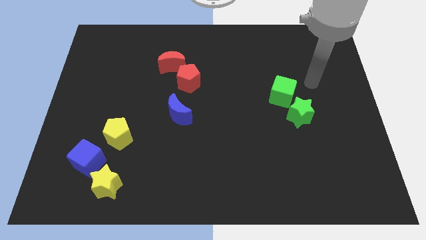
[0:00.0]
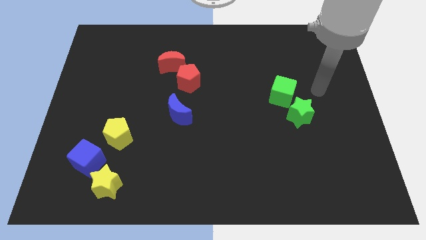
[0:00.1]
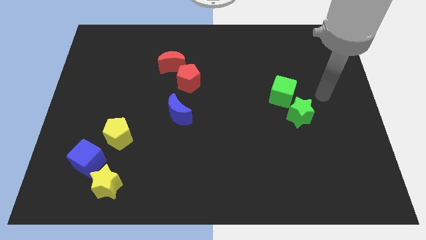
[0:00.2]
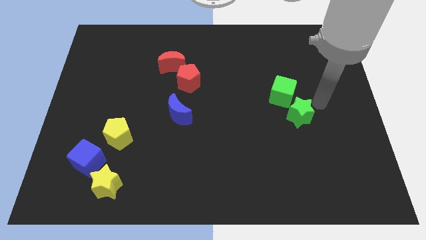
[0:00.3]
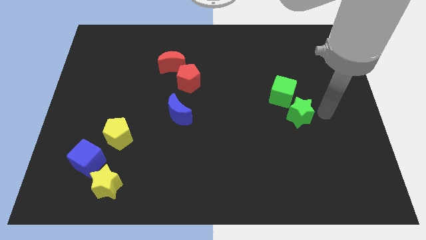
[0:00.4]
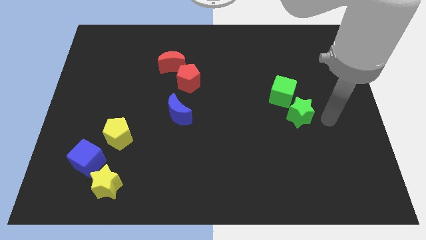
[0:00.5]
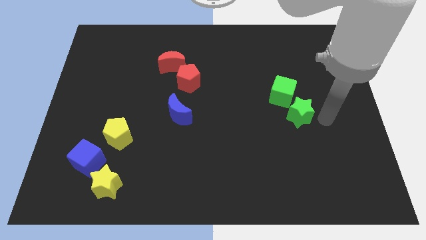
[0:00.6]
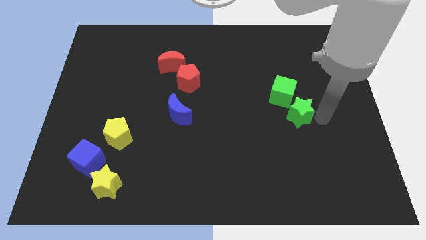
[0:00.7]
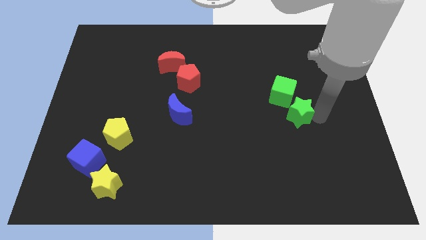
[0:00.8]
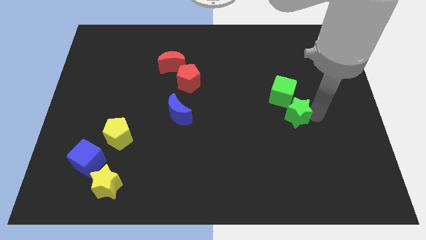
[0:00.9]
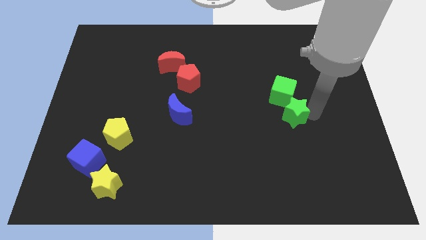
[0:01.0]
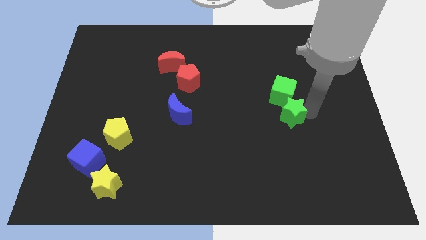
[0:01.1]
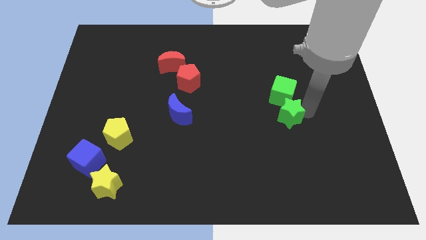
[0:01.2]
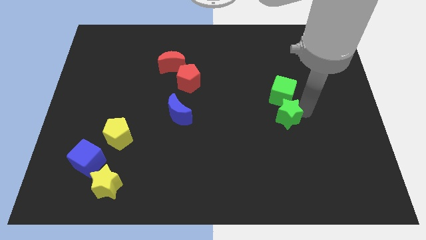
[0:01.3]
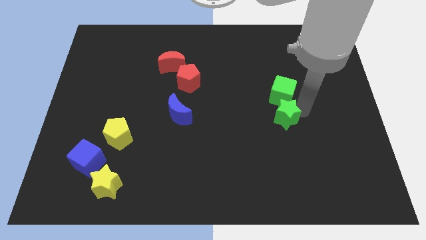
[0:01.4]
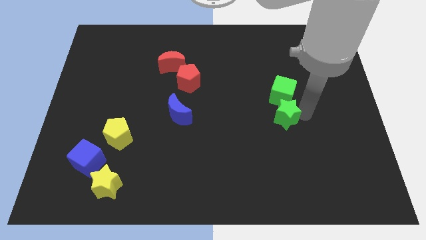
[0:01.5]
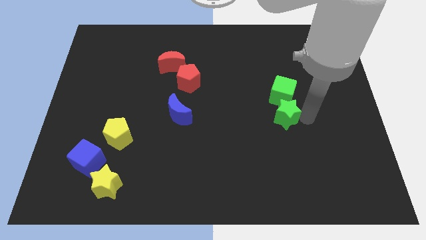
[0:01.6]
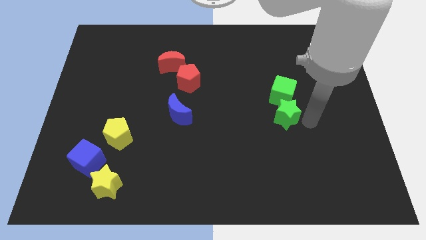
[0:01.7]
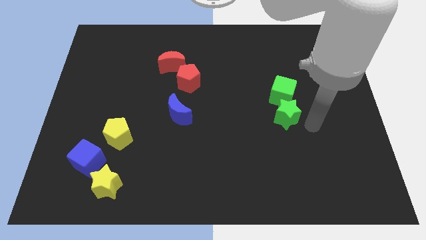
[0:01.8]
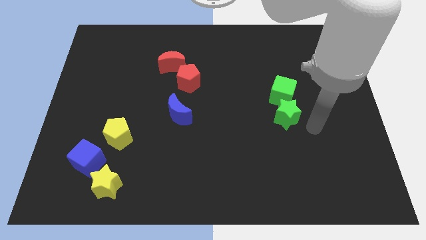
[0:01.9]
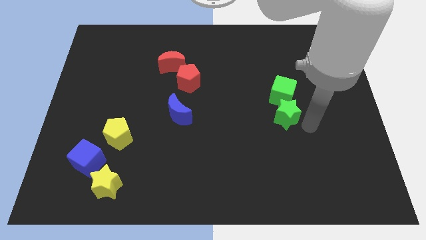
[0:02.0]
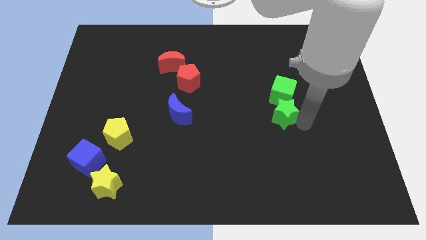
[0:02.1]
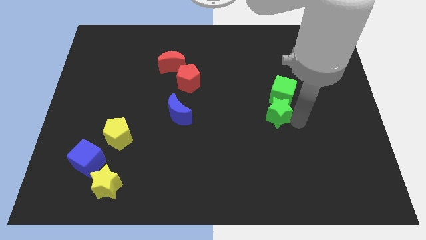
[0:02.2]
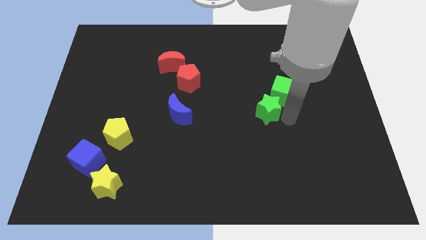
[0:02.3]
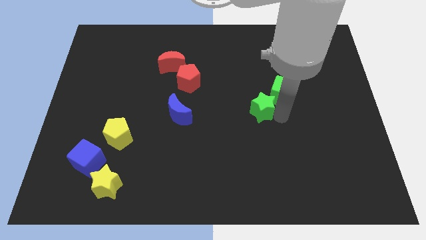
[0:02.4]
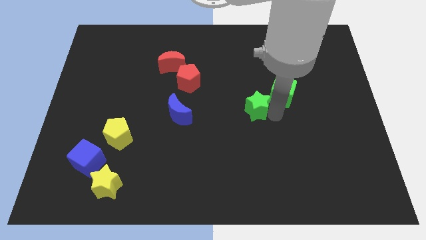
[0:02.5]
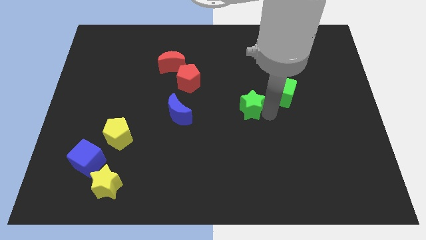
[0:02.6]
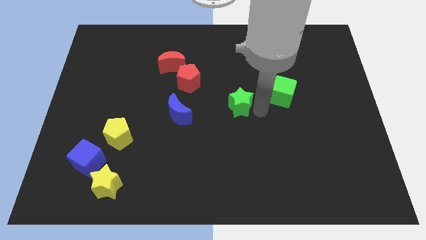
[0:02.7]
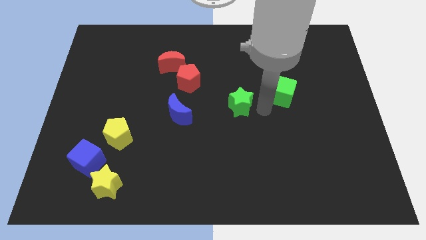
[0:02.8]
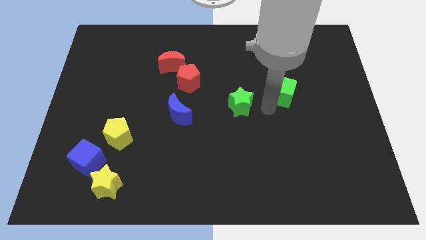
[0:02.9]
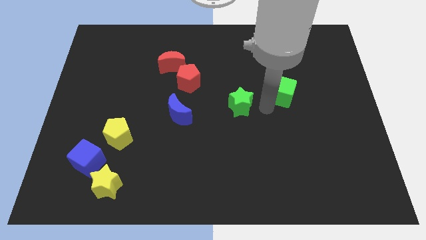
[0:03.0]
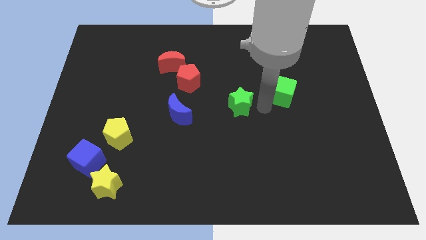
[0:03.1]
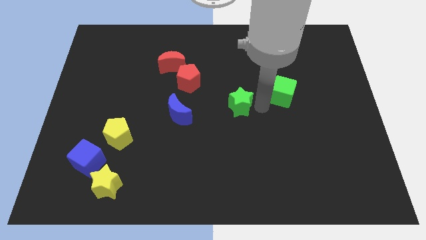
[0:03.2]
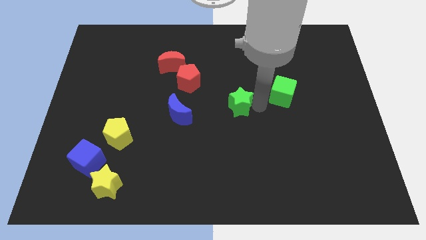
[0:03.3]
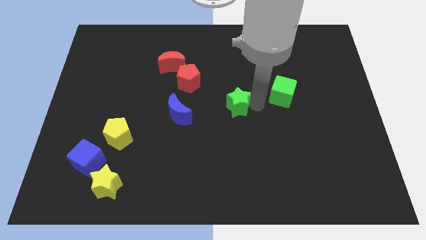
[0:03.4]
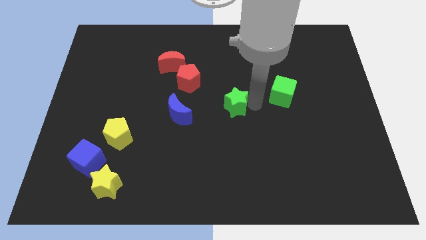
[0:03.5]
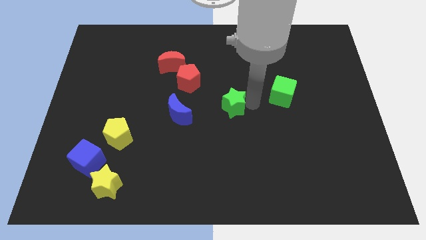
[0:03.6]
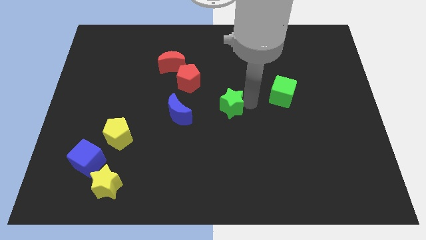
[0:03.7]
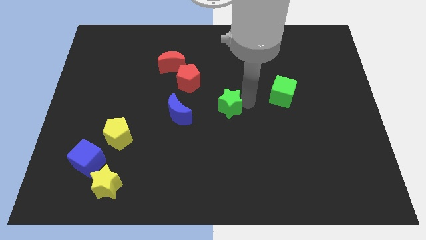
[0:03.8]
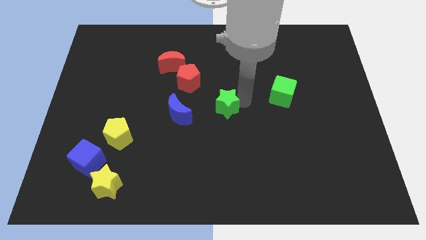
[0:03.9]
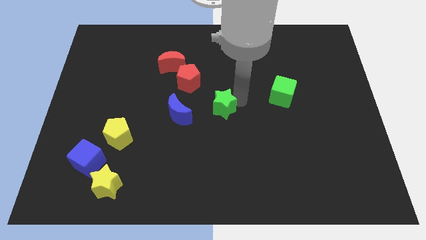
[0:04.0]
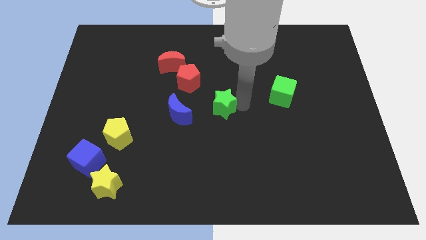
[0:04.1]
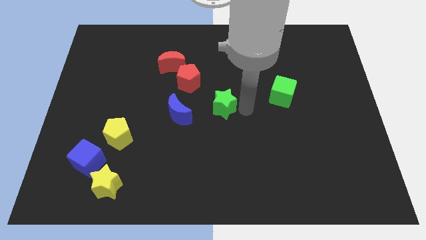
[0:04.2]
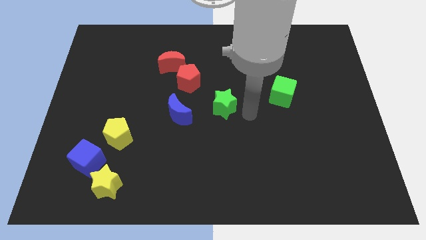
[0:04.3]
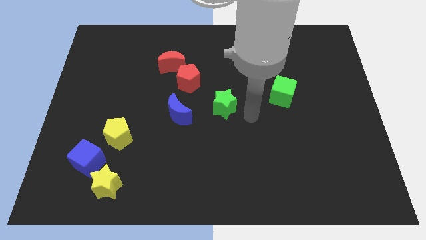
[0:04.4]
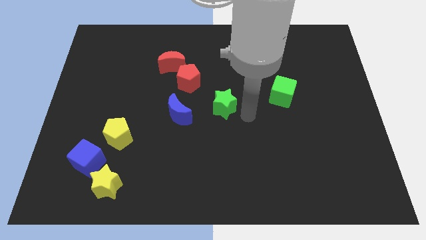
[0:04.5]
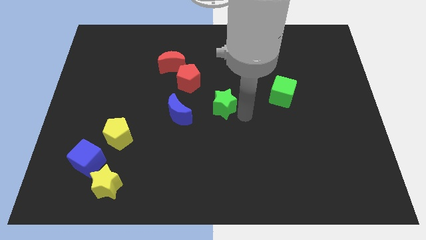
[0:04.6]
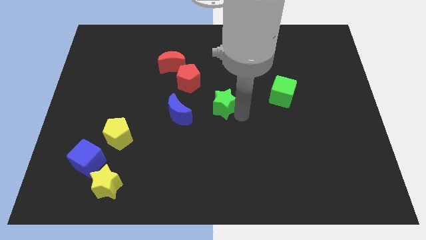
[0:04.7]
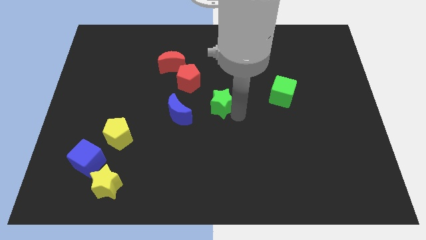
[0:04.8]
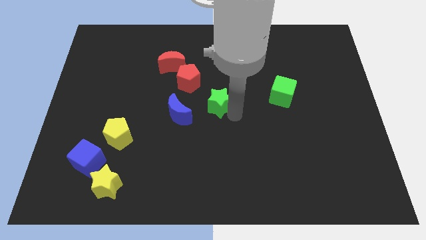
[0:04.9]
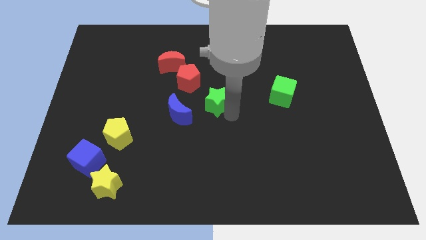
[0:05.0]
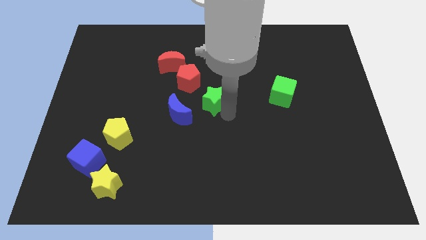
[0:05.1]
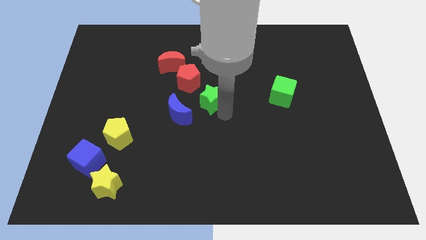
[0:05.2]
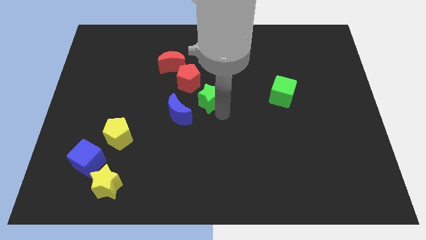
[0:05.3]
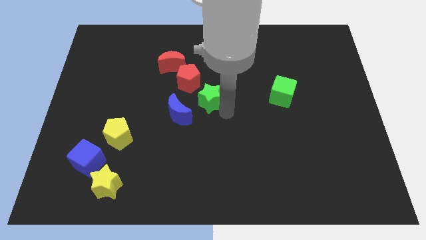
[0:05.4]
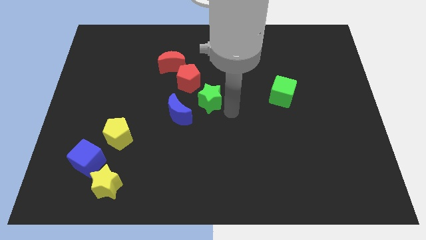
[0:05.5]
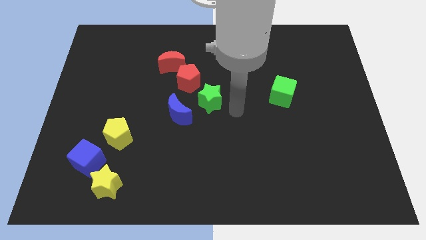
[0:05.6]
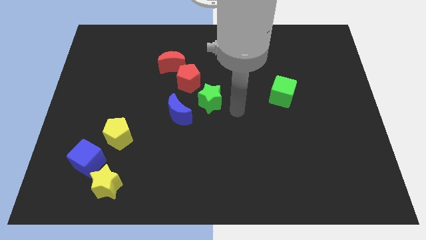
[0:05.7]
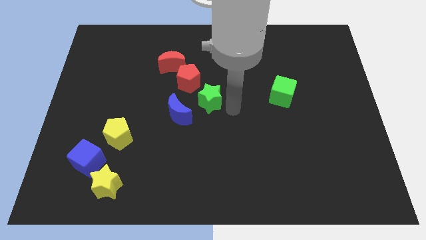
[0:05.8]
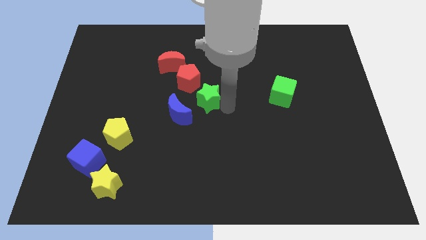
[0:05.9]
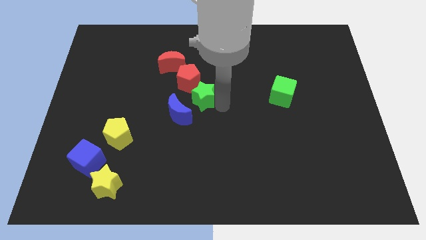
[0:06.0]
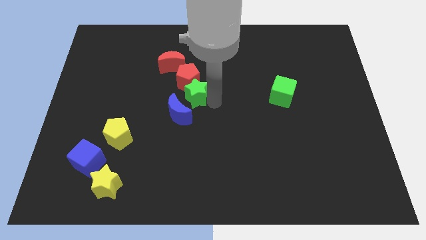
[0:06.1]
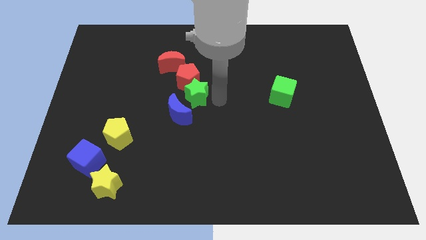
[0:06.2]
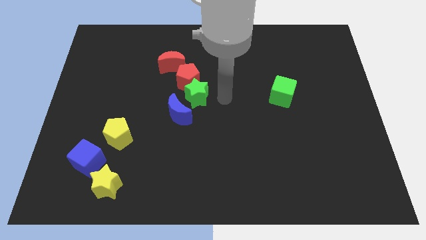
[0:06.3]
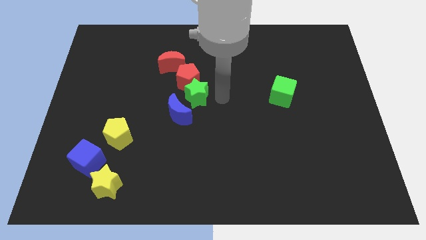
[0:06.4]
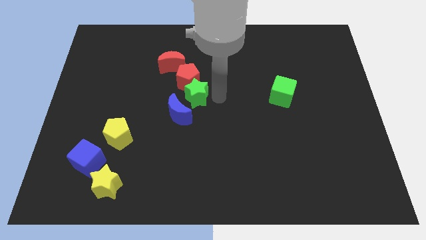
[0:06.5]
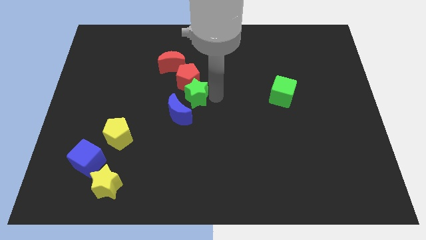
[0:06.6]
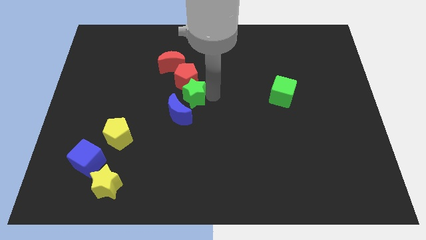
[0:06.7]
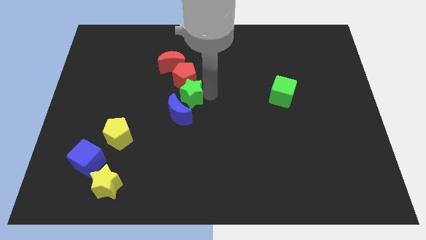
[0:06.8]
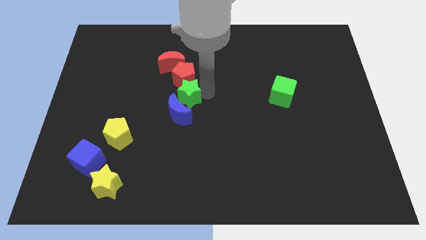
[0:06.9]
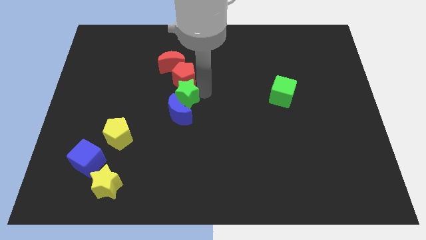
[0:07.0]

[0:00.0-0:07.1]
put the green star to the bottom side of the red moon
